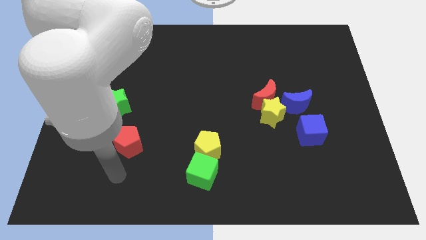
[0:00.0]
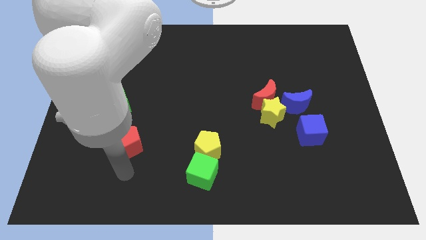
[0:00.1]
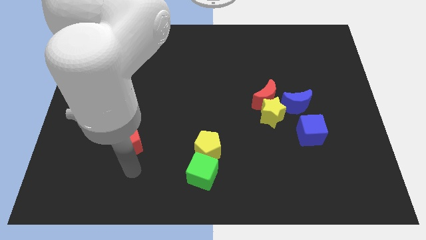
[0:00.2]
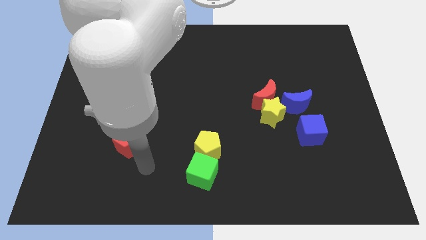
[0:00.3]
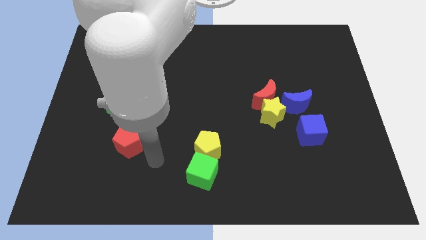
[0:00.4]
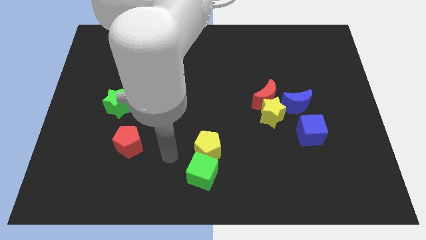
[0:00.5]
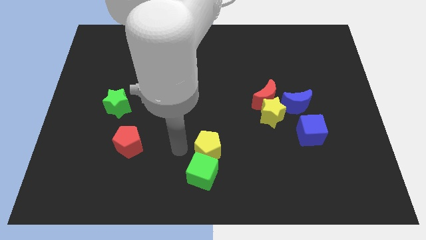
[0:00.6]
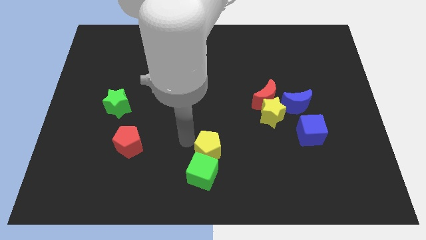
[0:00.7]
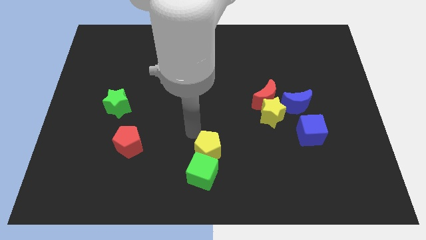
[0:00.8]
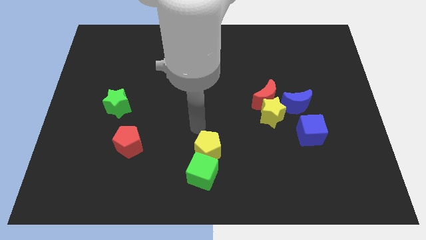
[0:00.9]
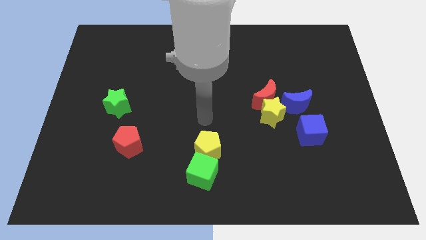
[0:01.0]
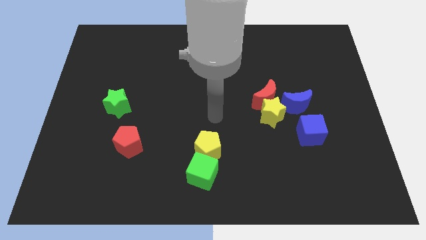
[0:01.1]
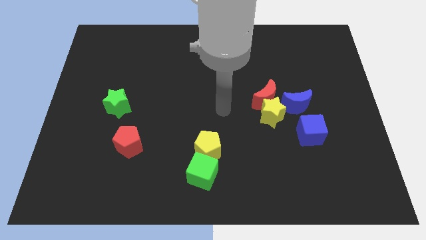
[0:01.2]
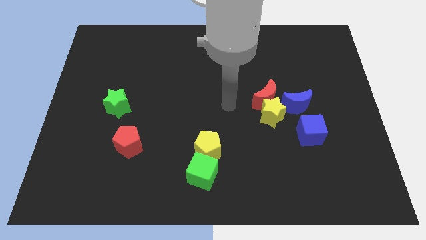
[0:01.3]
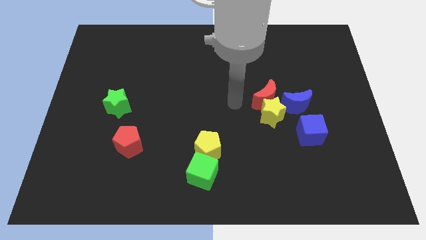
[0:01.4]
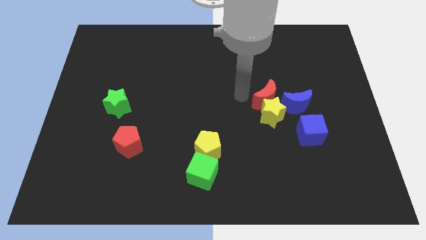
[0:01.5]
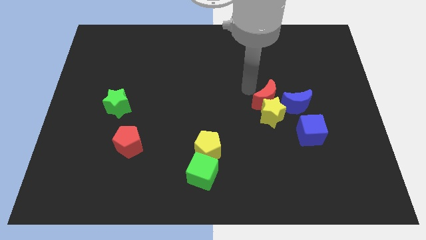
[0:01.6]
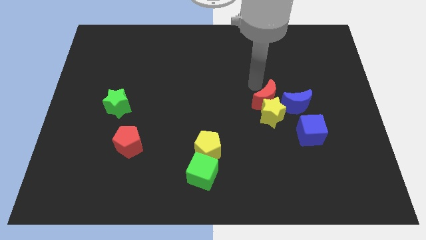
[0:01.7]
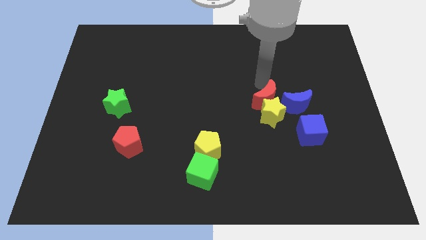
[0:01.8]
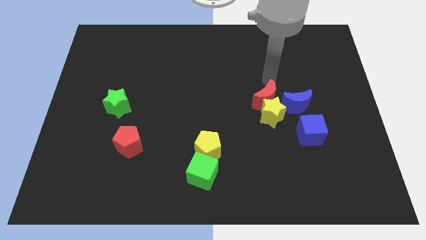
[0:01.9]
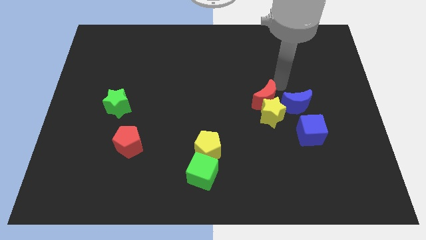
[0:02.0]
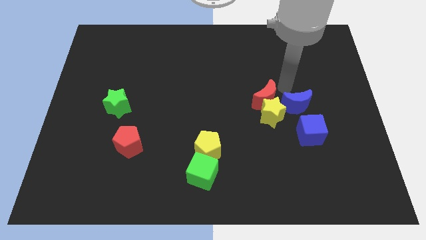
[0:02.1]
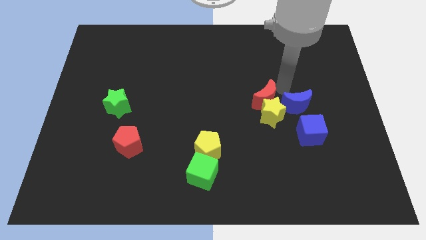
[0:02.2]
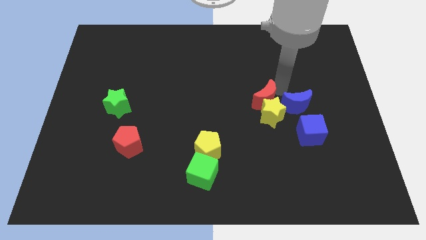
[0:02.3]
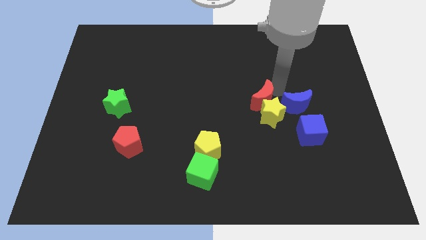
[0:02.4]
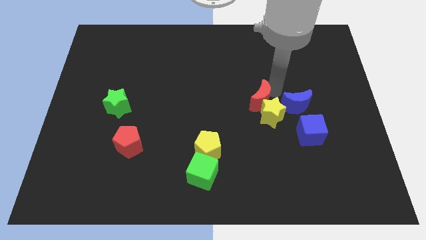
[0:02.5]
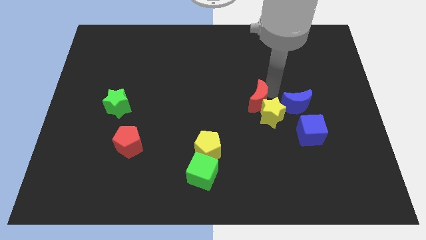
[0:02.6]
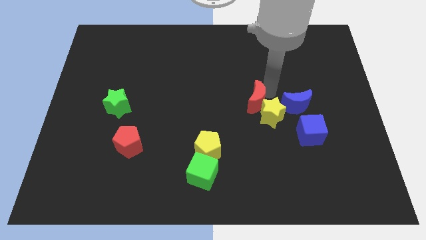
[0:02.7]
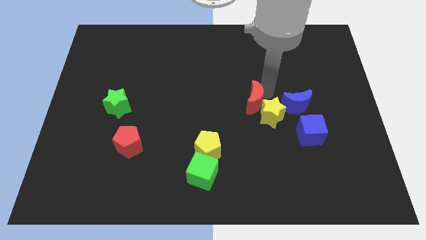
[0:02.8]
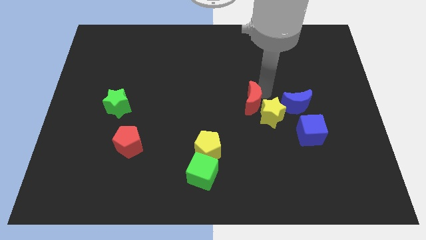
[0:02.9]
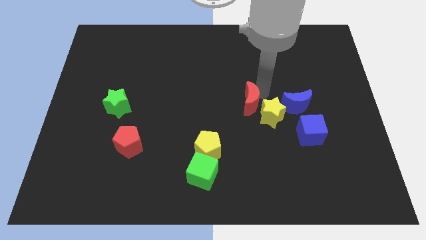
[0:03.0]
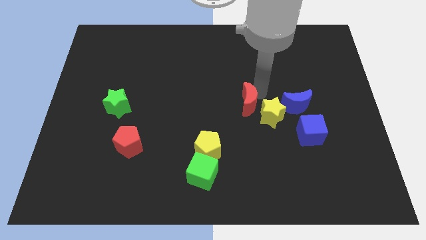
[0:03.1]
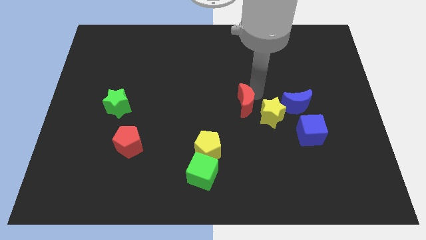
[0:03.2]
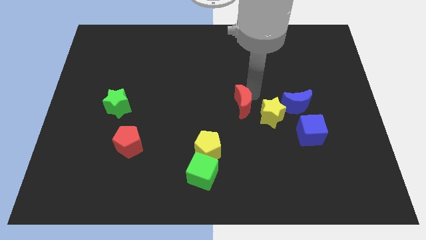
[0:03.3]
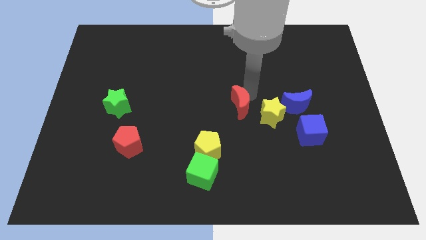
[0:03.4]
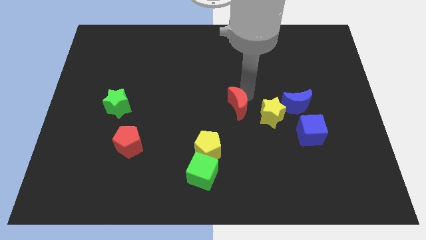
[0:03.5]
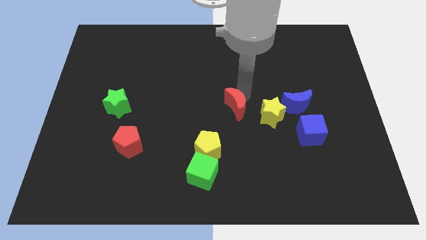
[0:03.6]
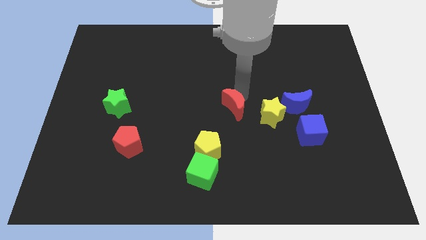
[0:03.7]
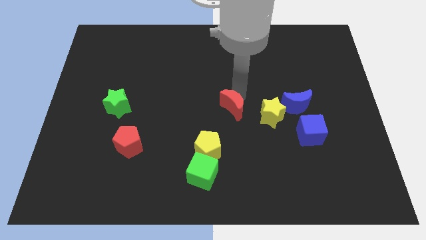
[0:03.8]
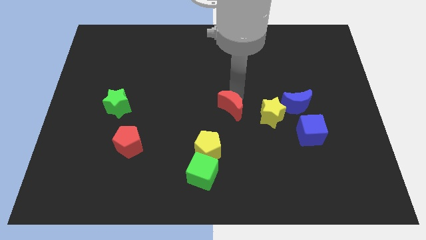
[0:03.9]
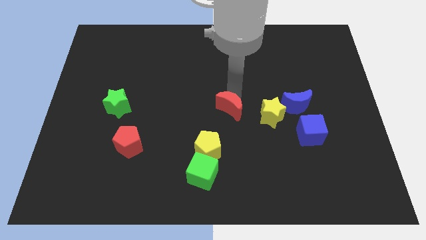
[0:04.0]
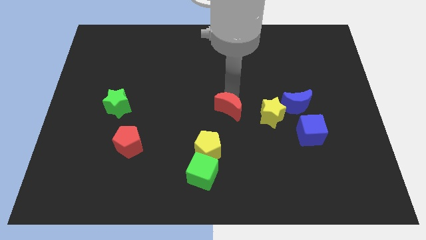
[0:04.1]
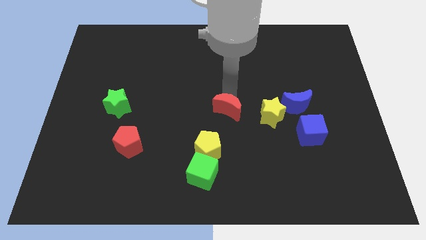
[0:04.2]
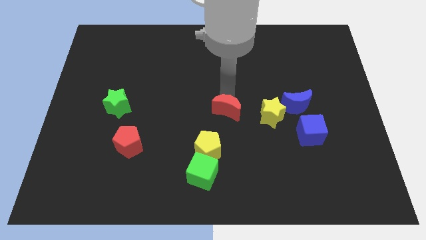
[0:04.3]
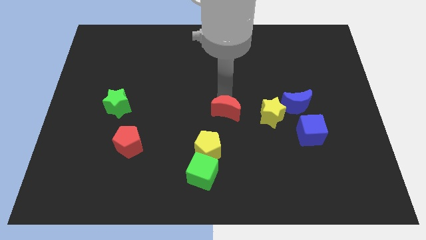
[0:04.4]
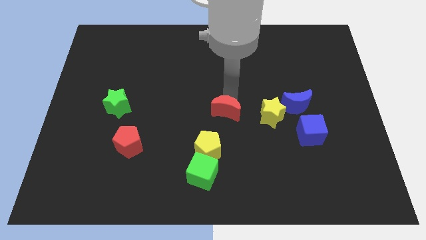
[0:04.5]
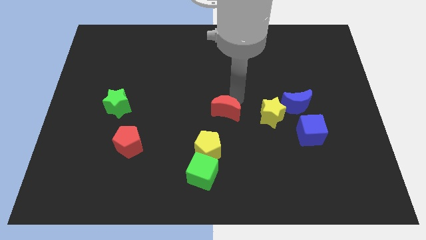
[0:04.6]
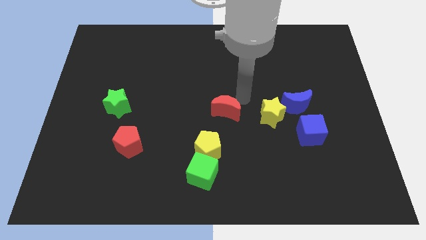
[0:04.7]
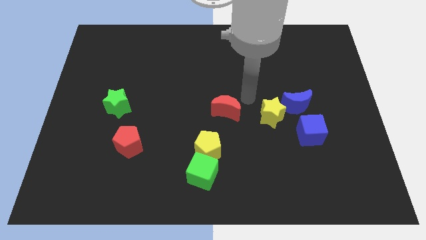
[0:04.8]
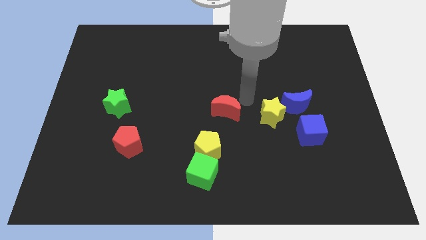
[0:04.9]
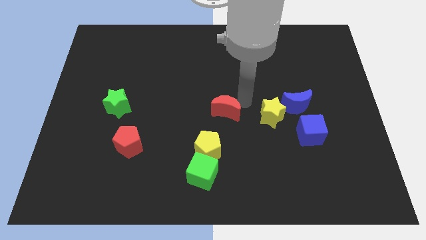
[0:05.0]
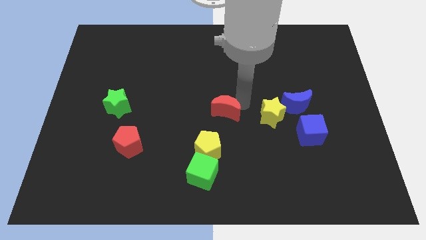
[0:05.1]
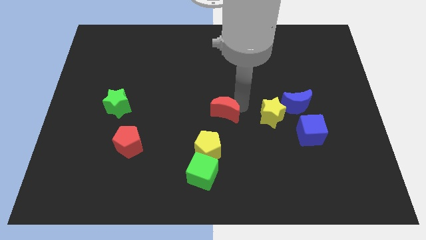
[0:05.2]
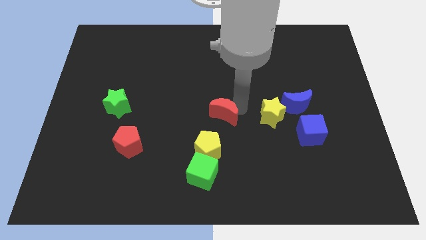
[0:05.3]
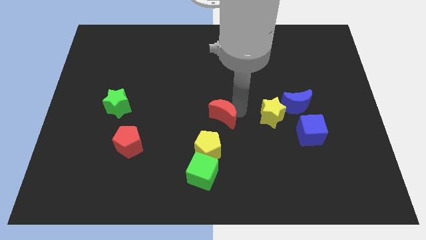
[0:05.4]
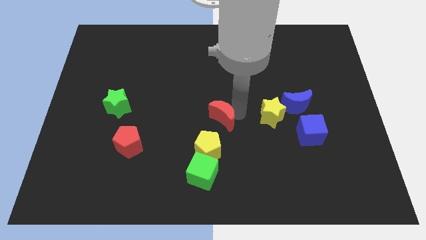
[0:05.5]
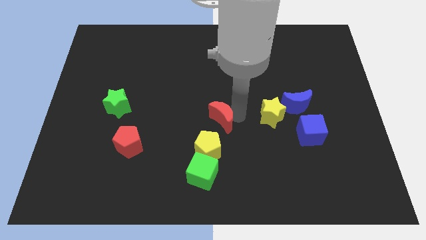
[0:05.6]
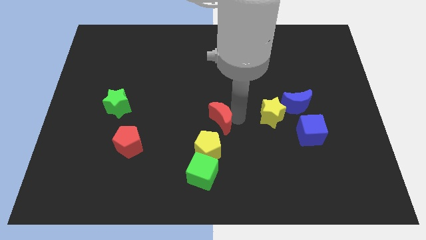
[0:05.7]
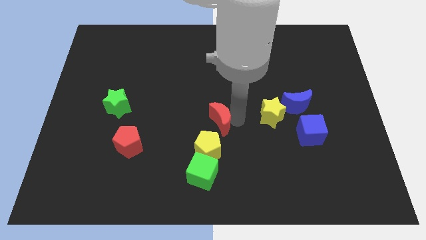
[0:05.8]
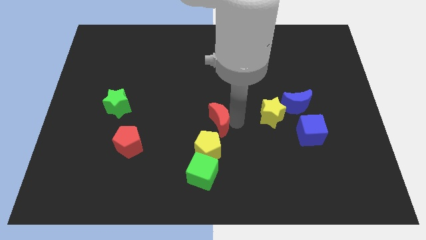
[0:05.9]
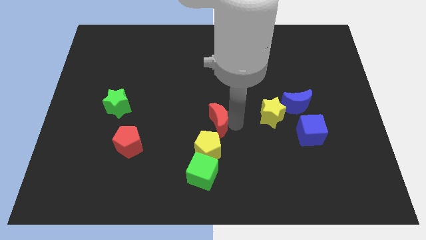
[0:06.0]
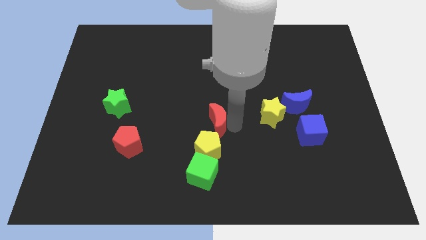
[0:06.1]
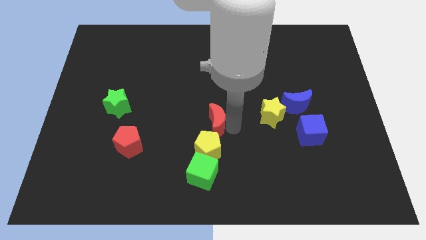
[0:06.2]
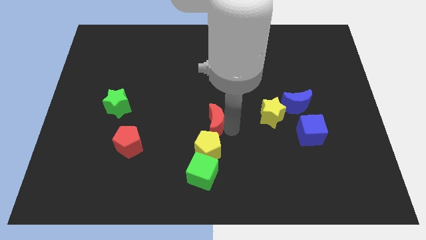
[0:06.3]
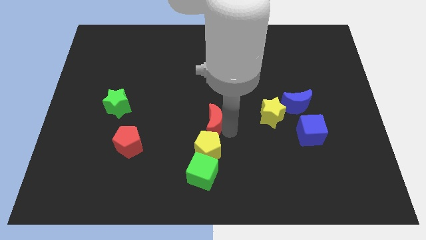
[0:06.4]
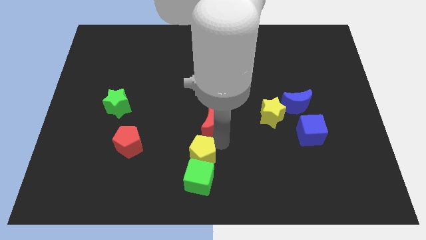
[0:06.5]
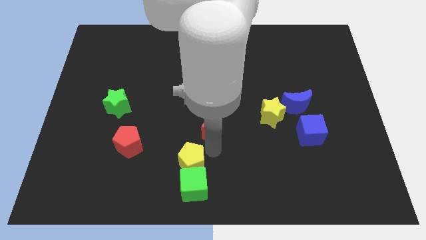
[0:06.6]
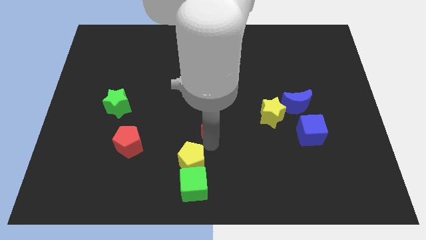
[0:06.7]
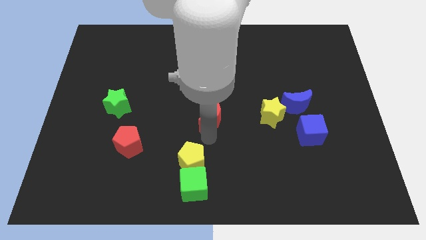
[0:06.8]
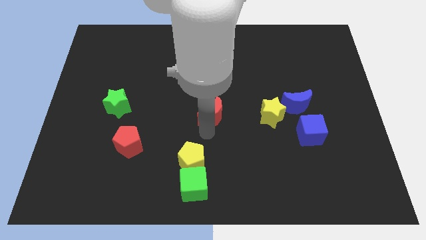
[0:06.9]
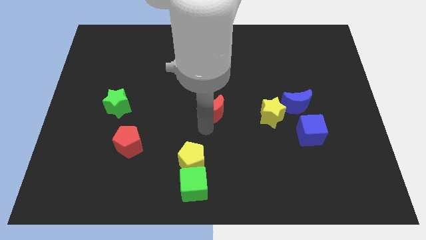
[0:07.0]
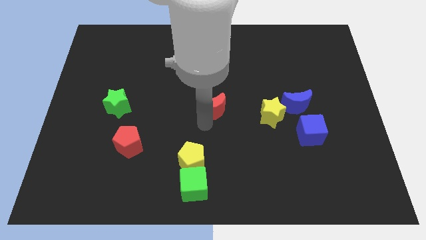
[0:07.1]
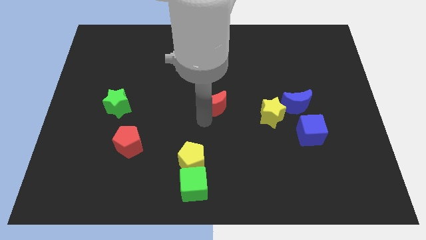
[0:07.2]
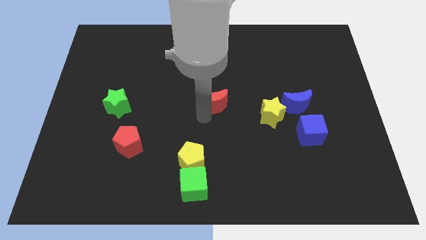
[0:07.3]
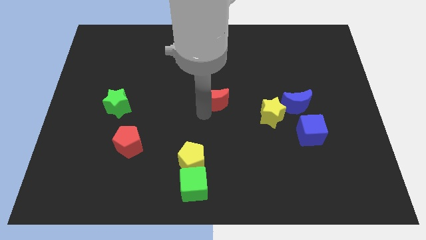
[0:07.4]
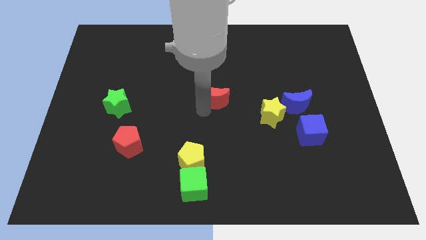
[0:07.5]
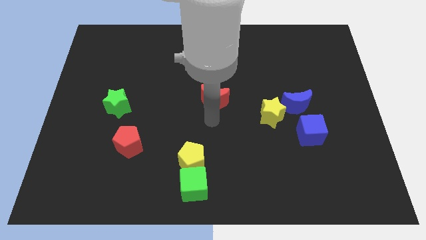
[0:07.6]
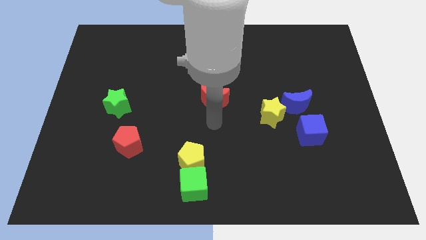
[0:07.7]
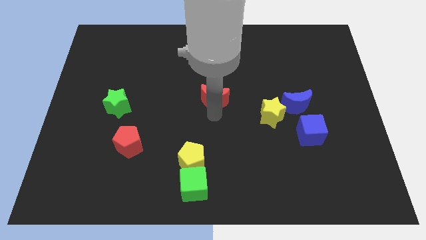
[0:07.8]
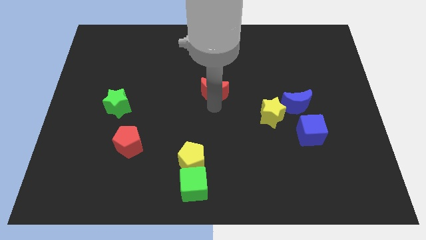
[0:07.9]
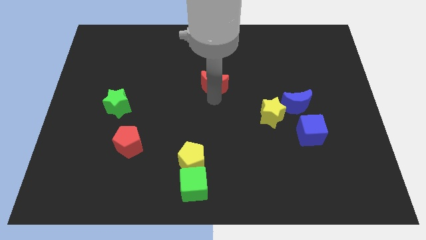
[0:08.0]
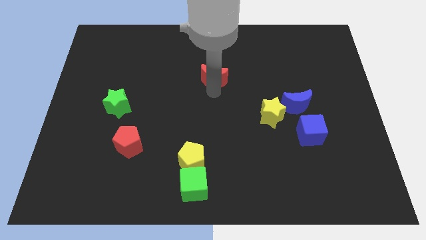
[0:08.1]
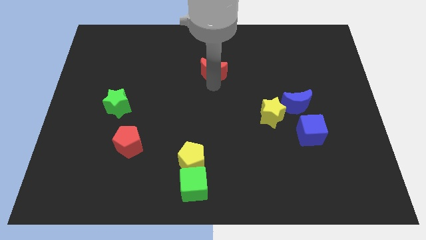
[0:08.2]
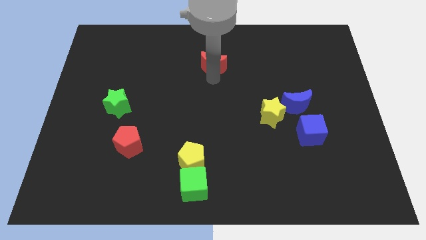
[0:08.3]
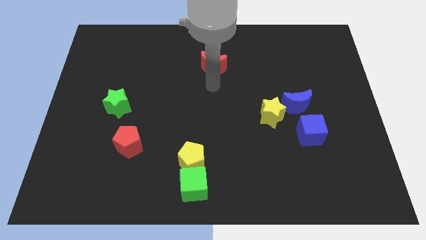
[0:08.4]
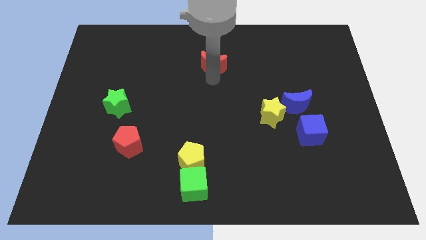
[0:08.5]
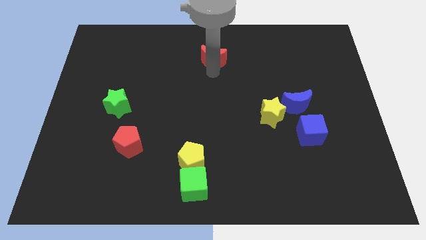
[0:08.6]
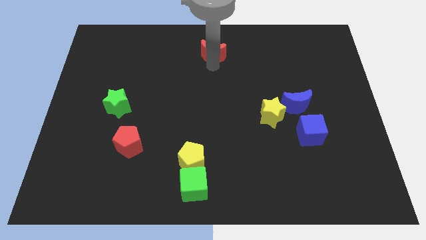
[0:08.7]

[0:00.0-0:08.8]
slide the red moon to the towards your base
